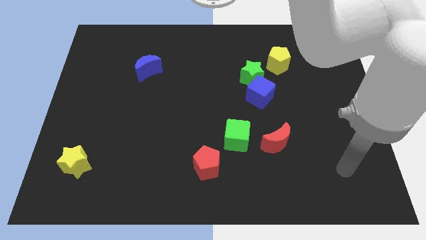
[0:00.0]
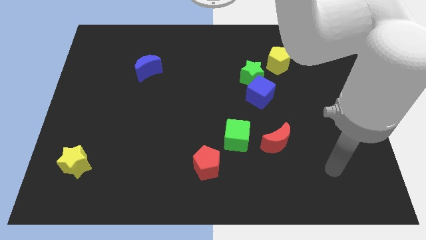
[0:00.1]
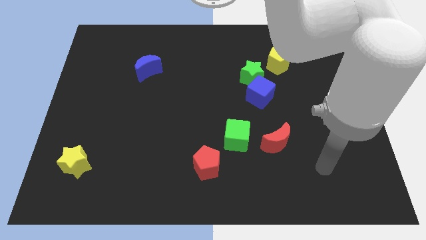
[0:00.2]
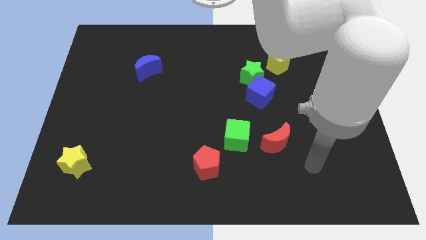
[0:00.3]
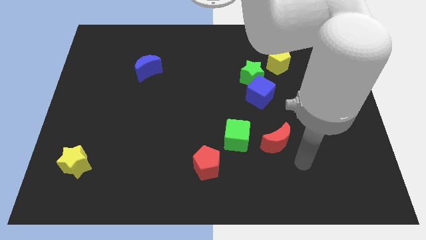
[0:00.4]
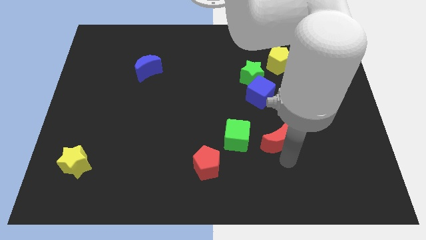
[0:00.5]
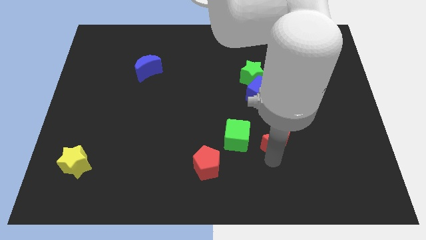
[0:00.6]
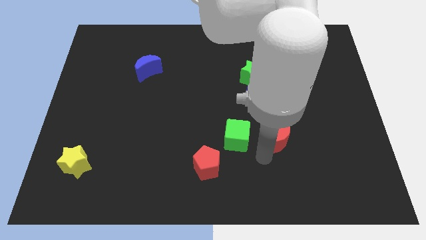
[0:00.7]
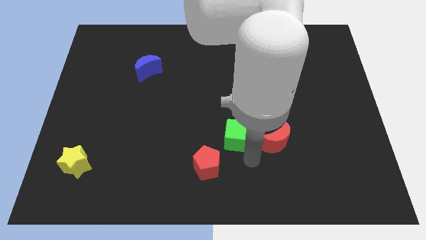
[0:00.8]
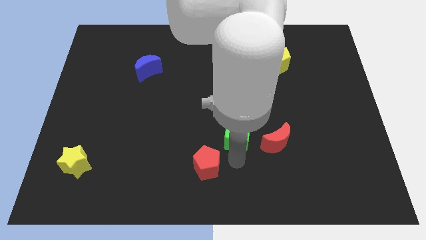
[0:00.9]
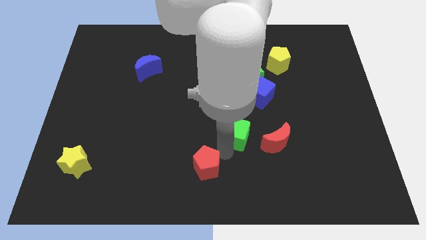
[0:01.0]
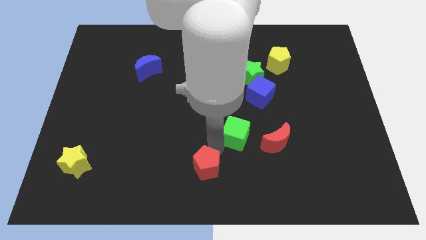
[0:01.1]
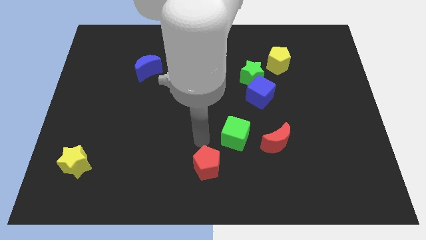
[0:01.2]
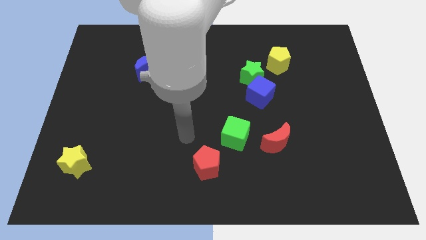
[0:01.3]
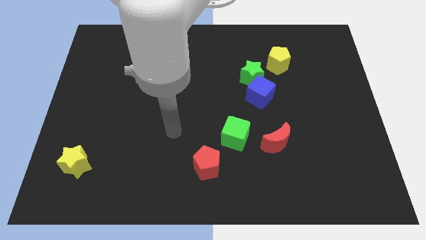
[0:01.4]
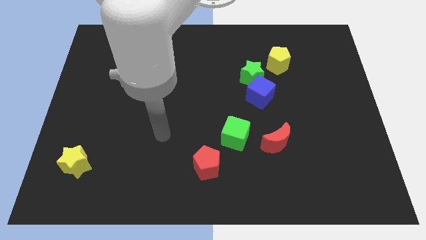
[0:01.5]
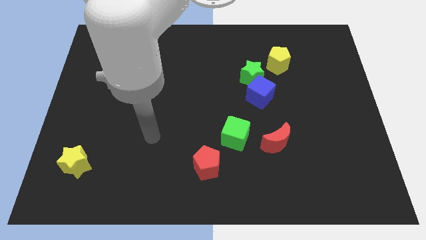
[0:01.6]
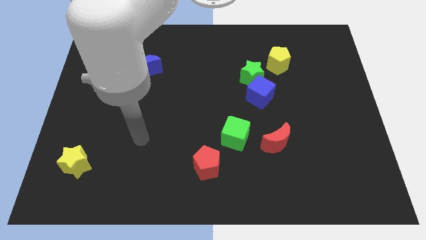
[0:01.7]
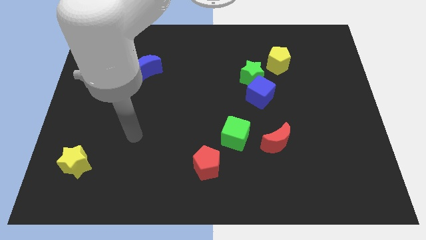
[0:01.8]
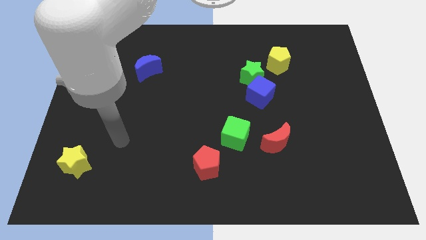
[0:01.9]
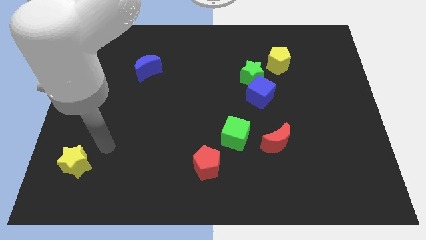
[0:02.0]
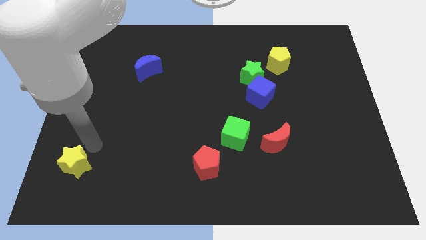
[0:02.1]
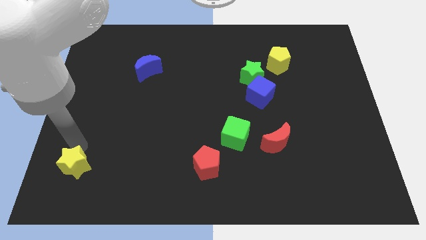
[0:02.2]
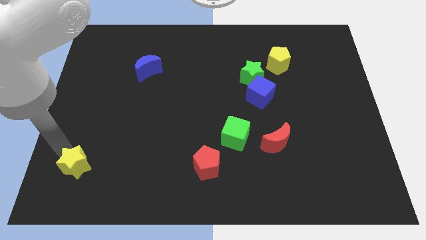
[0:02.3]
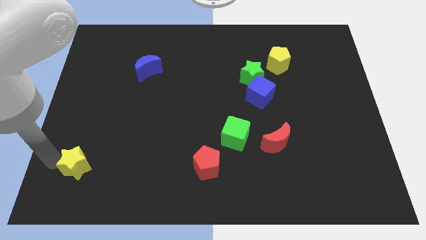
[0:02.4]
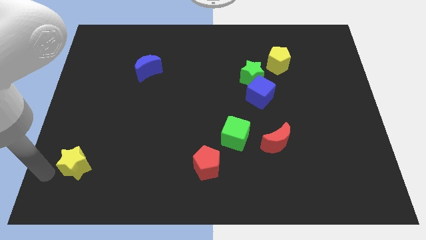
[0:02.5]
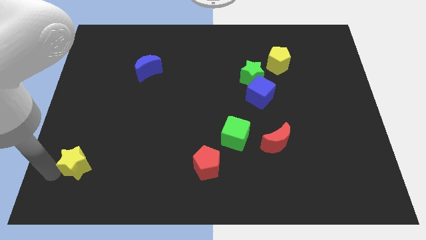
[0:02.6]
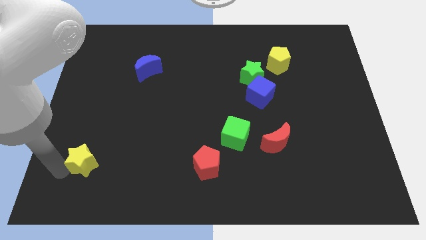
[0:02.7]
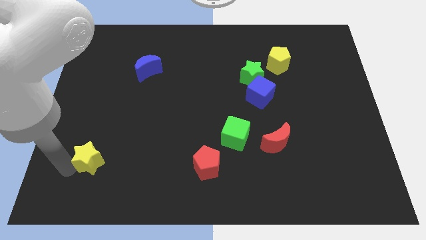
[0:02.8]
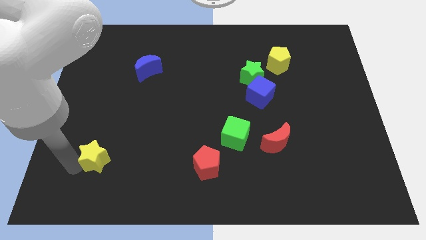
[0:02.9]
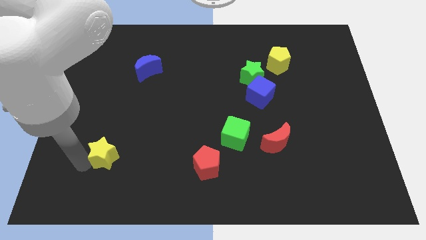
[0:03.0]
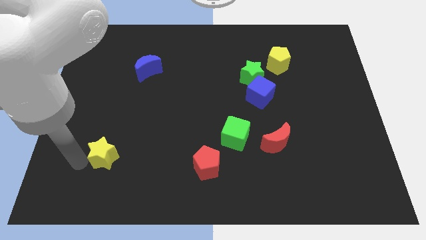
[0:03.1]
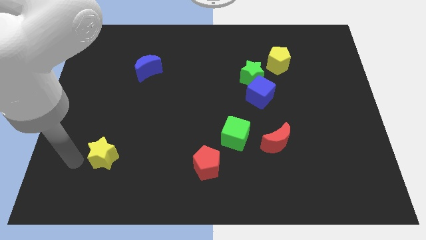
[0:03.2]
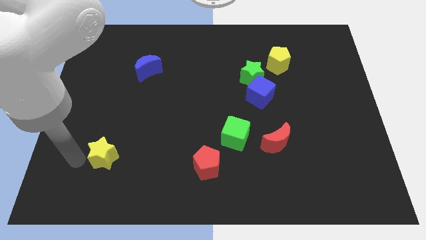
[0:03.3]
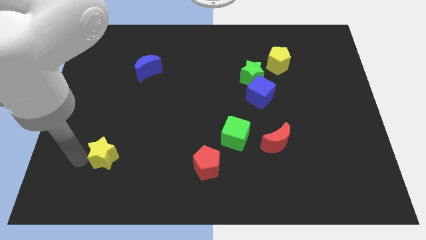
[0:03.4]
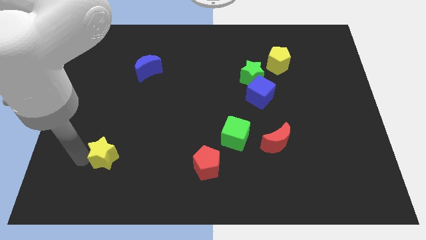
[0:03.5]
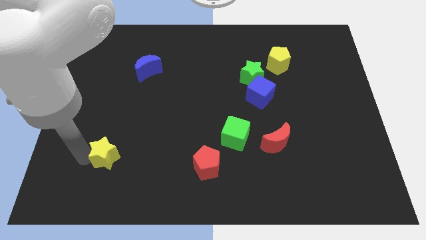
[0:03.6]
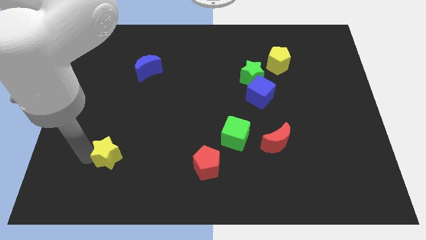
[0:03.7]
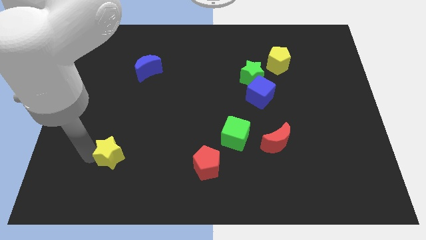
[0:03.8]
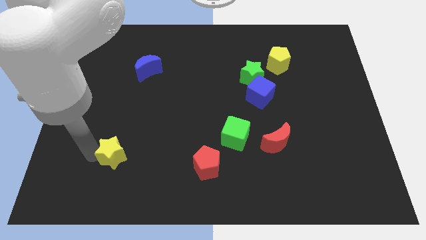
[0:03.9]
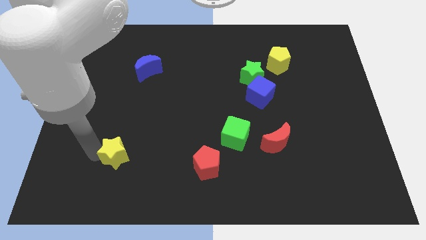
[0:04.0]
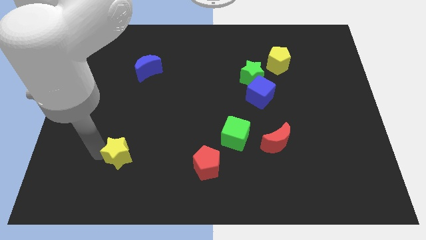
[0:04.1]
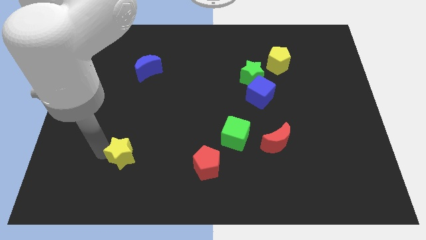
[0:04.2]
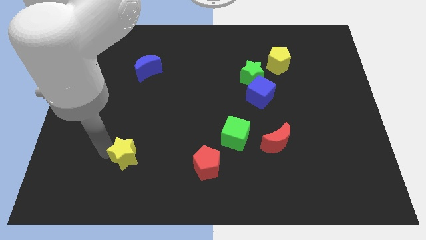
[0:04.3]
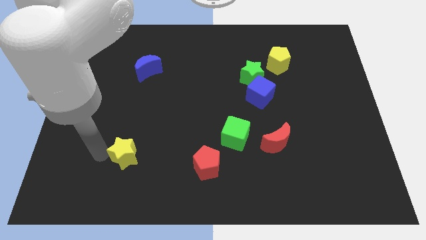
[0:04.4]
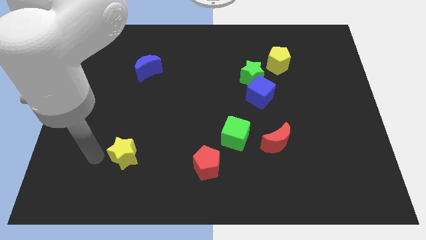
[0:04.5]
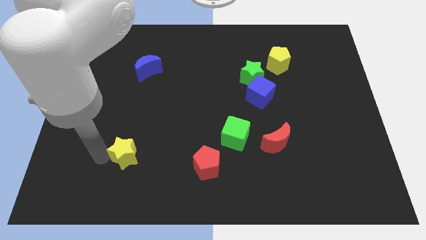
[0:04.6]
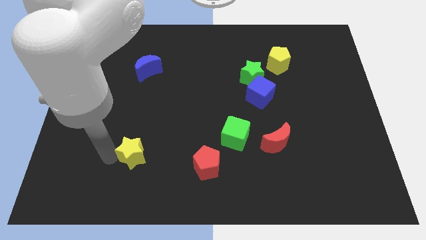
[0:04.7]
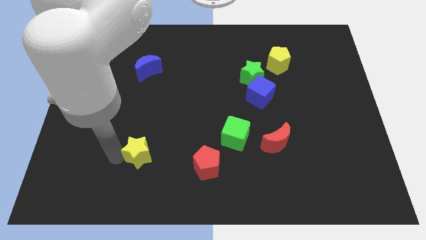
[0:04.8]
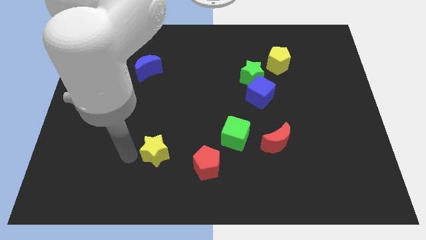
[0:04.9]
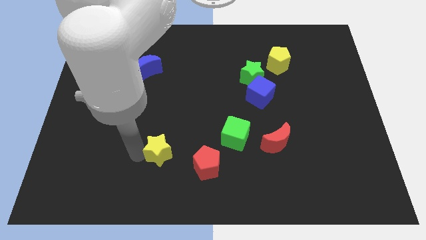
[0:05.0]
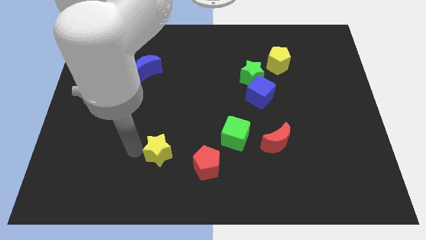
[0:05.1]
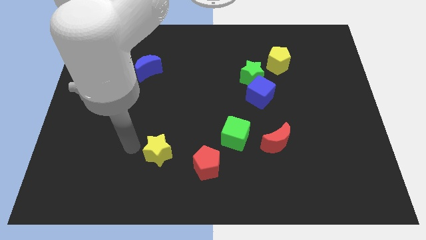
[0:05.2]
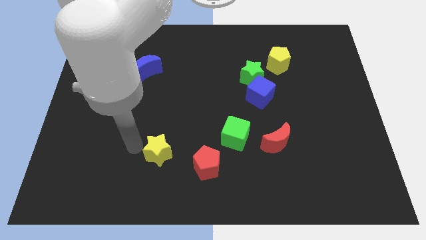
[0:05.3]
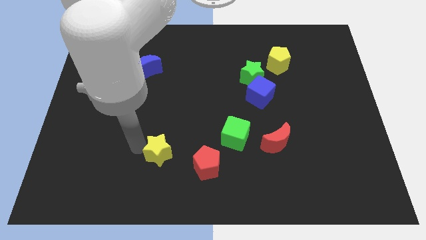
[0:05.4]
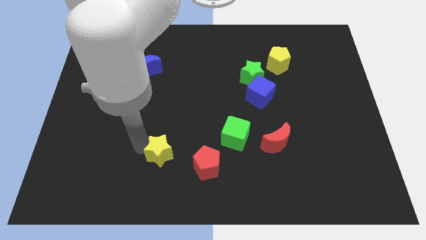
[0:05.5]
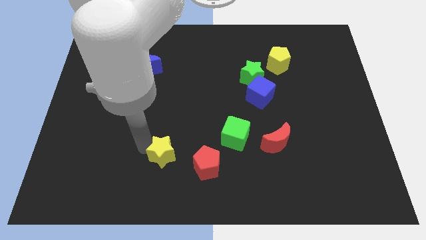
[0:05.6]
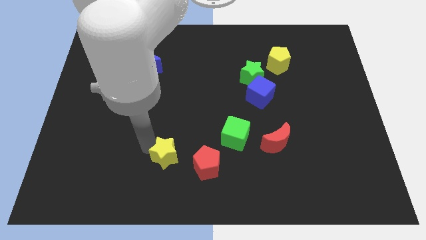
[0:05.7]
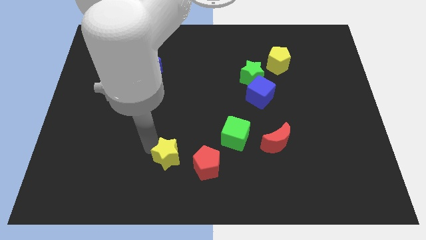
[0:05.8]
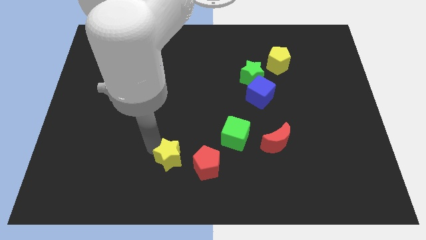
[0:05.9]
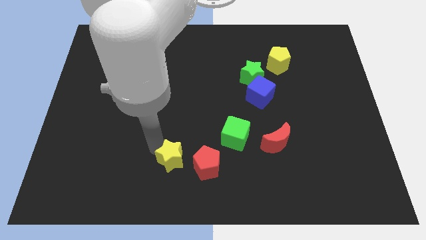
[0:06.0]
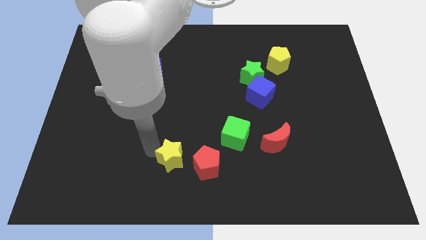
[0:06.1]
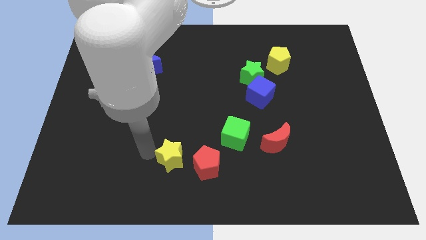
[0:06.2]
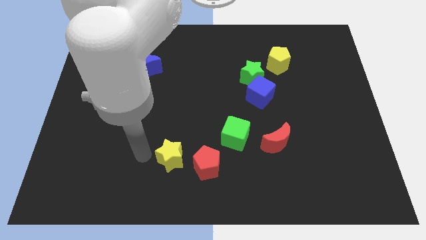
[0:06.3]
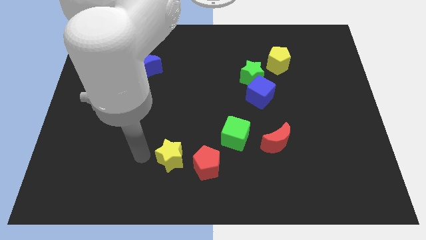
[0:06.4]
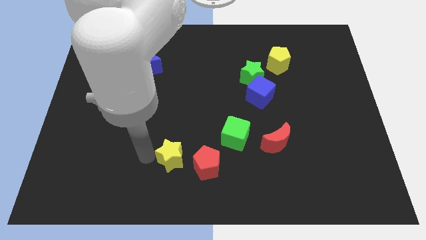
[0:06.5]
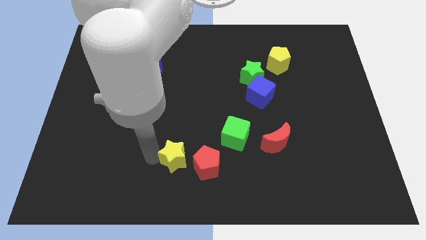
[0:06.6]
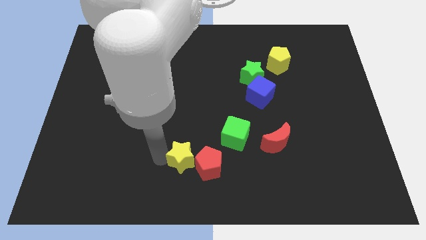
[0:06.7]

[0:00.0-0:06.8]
put the yellow star towards the red pentagon

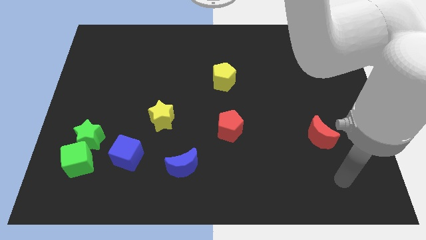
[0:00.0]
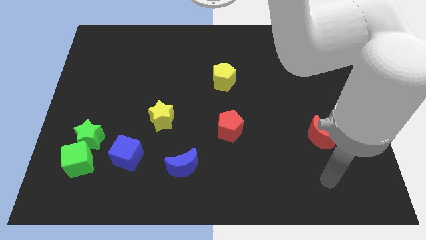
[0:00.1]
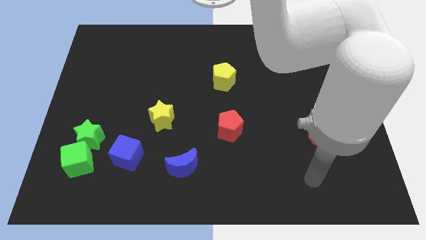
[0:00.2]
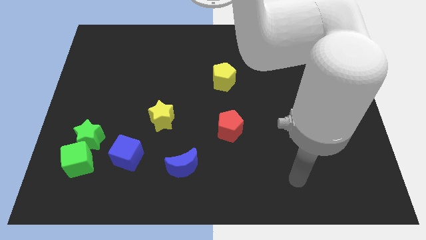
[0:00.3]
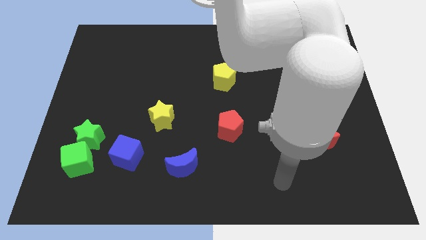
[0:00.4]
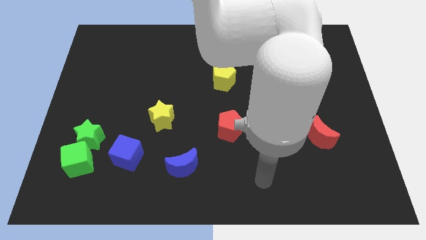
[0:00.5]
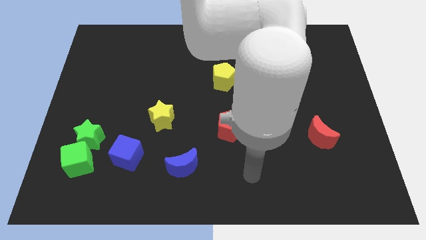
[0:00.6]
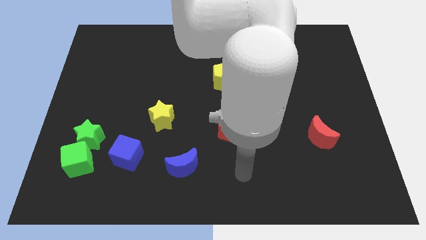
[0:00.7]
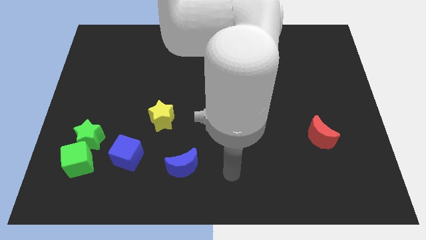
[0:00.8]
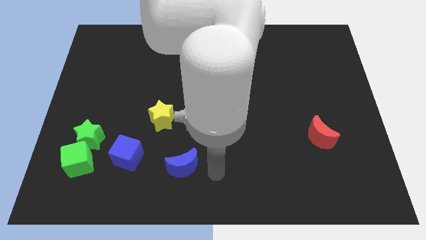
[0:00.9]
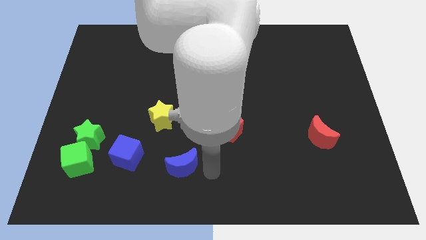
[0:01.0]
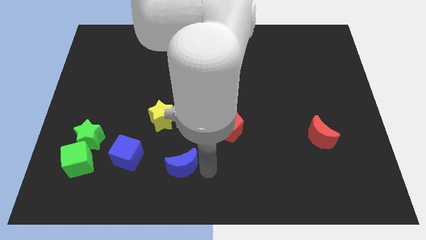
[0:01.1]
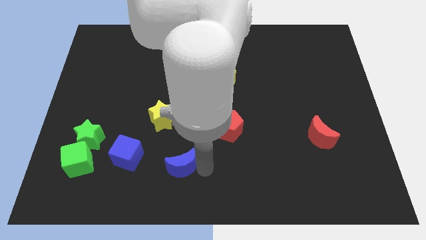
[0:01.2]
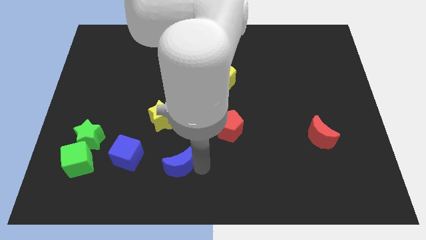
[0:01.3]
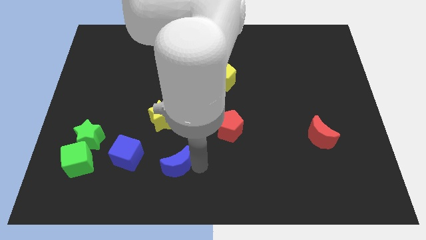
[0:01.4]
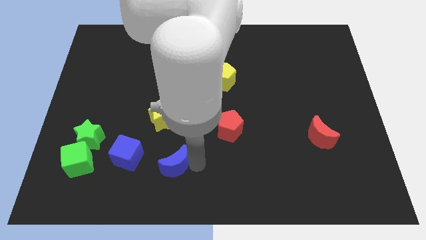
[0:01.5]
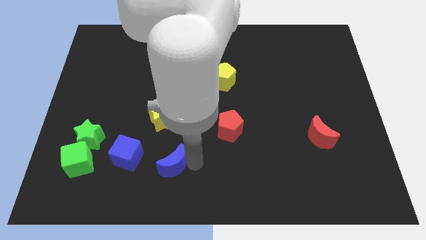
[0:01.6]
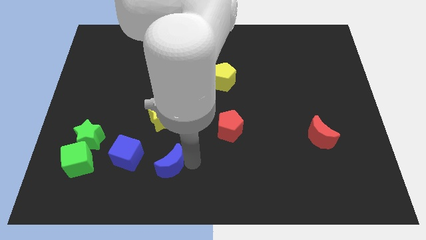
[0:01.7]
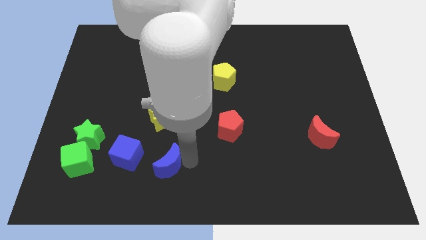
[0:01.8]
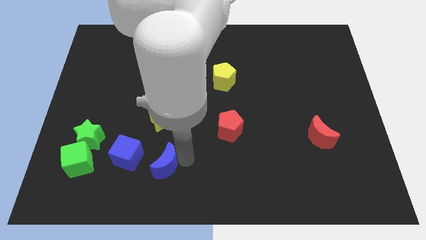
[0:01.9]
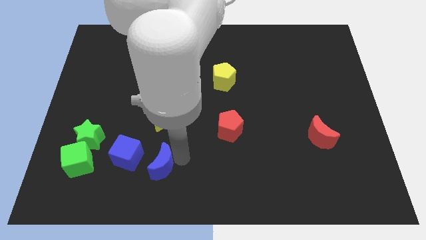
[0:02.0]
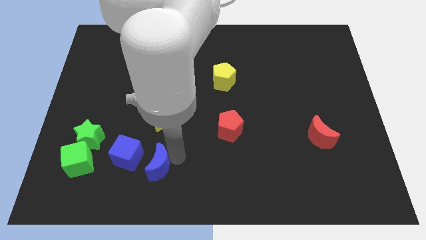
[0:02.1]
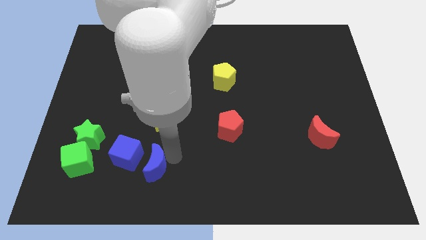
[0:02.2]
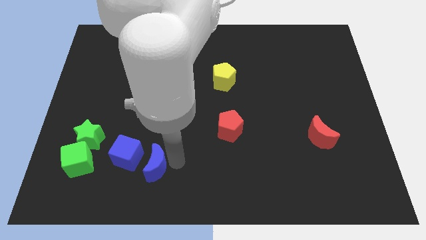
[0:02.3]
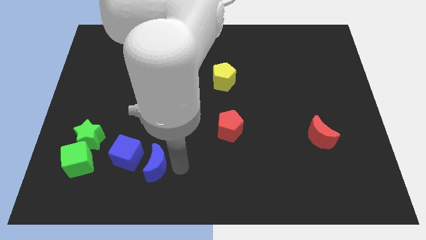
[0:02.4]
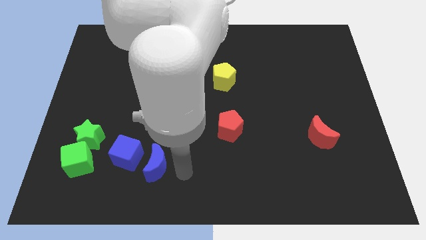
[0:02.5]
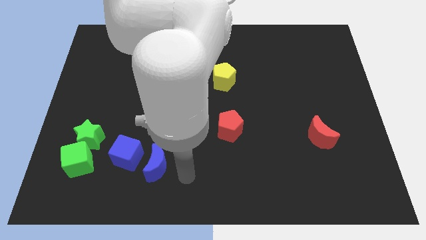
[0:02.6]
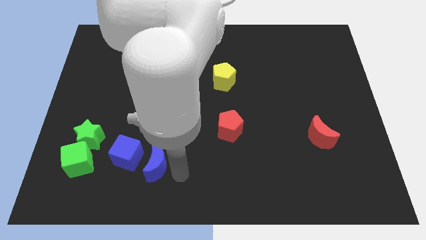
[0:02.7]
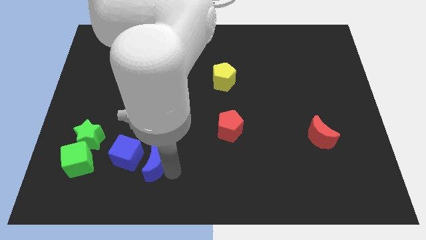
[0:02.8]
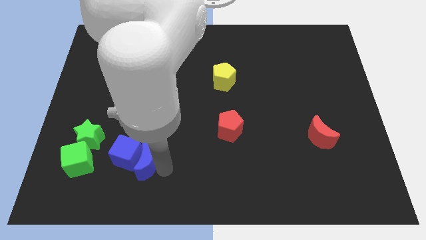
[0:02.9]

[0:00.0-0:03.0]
push the blue moon next to the blue cube
